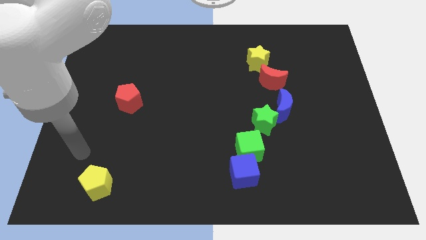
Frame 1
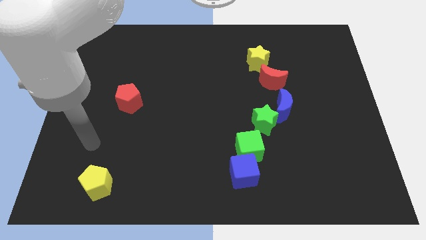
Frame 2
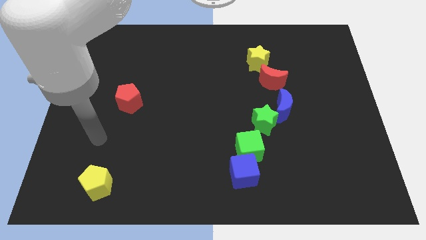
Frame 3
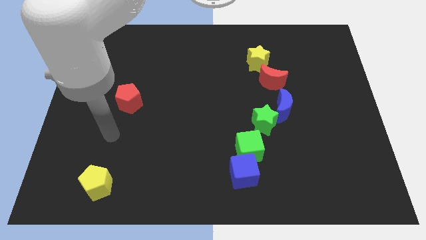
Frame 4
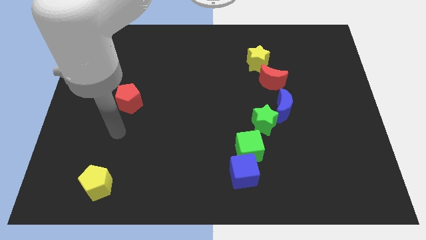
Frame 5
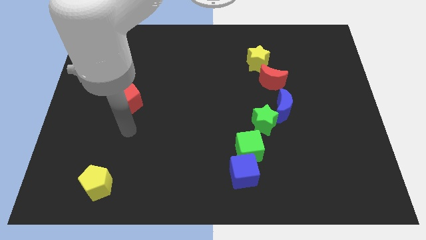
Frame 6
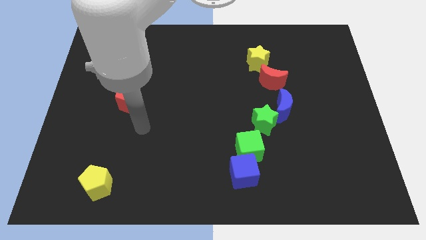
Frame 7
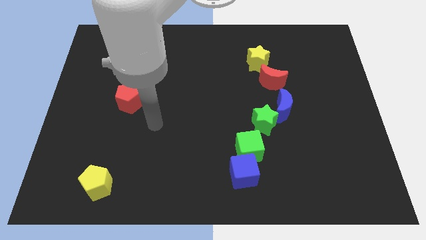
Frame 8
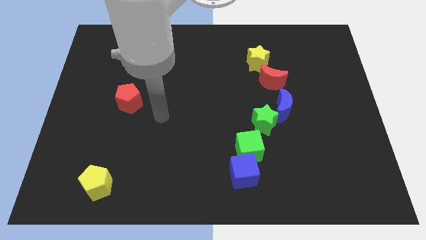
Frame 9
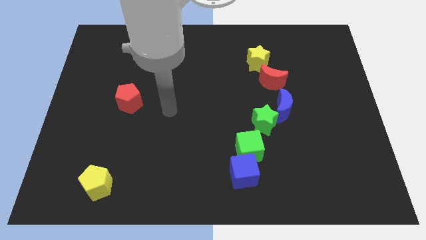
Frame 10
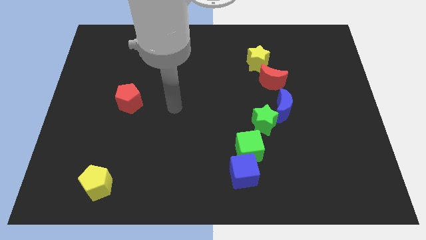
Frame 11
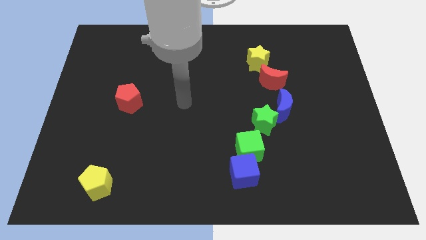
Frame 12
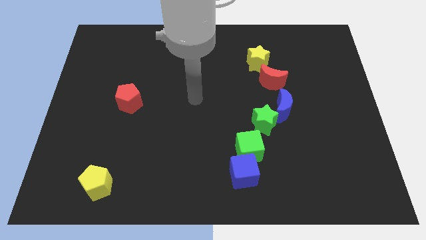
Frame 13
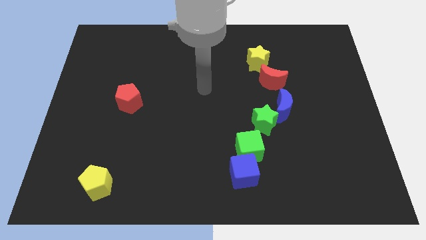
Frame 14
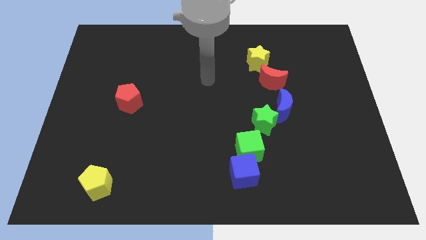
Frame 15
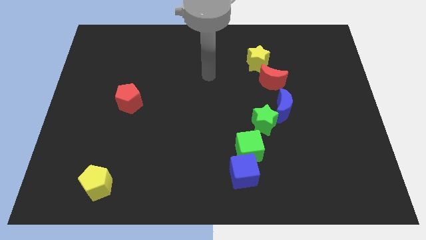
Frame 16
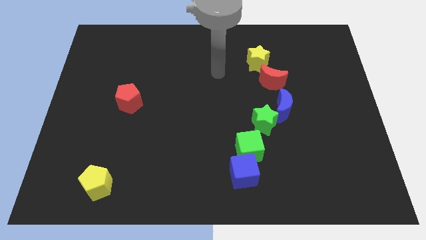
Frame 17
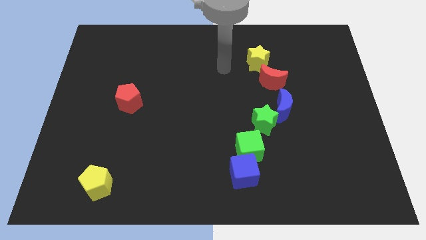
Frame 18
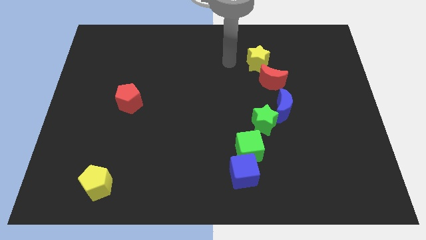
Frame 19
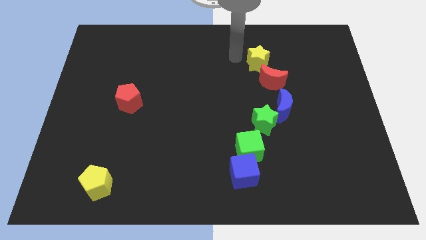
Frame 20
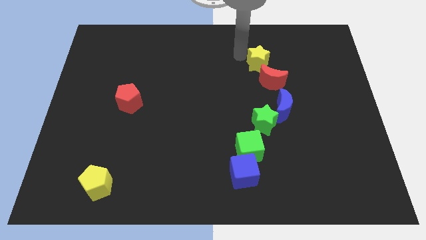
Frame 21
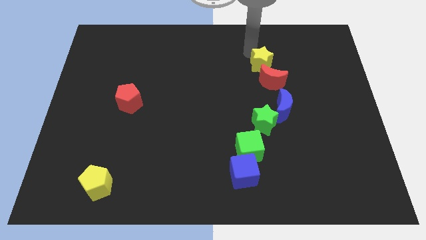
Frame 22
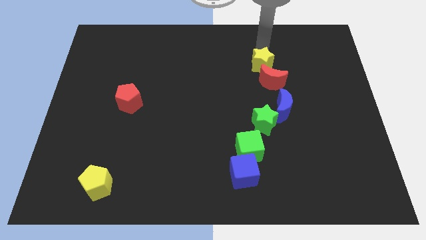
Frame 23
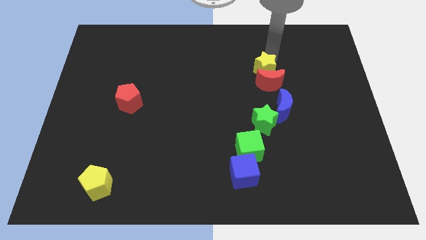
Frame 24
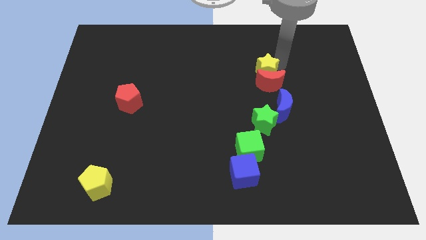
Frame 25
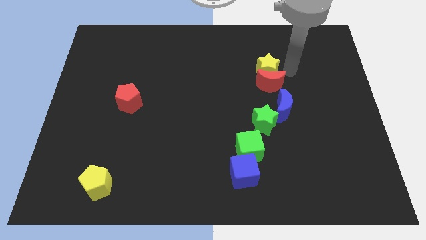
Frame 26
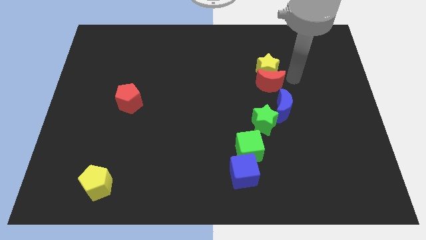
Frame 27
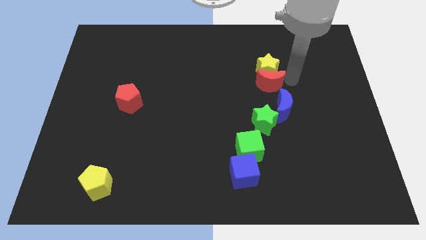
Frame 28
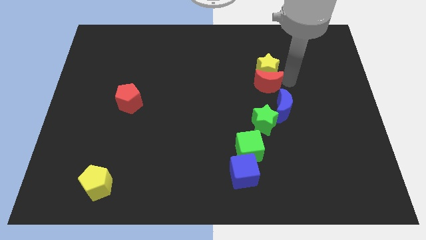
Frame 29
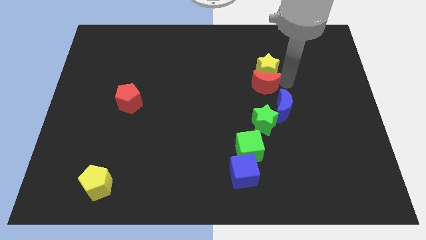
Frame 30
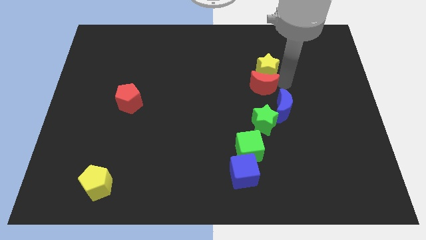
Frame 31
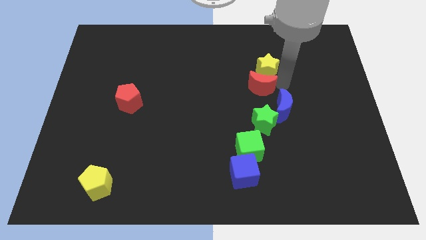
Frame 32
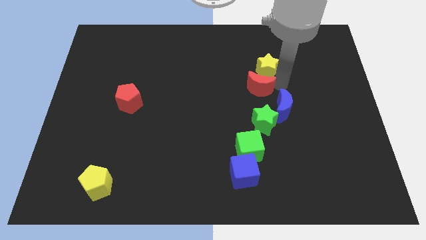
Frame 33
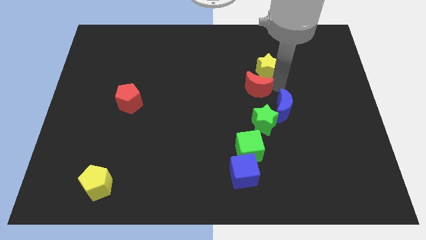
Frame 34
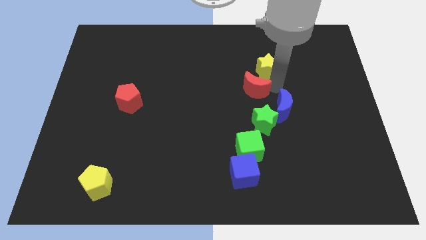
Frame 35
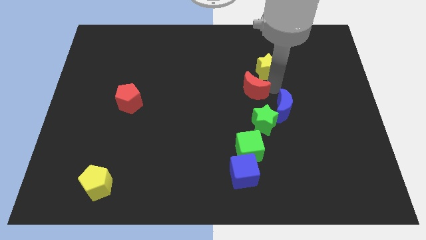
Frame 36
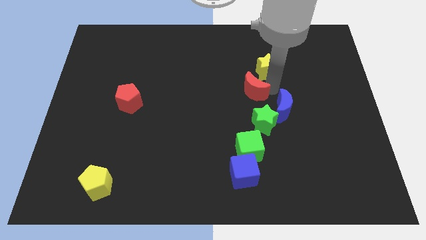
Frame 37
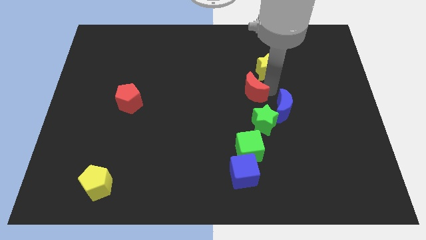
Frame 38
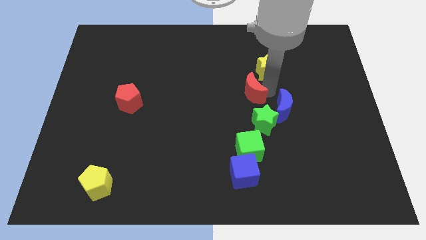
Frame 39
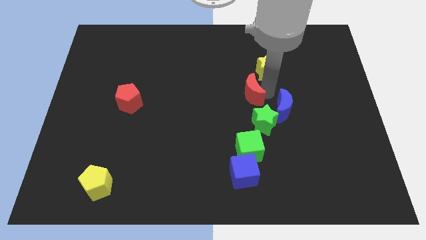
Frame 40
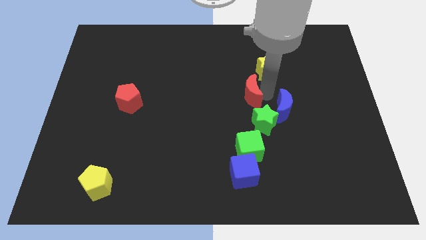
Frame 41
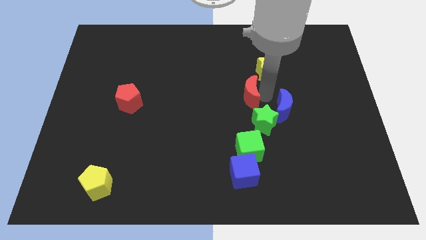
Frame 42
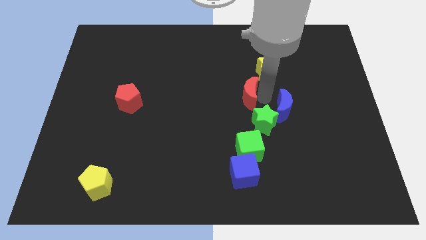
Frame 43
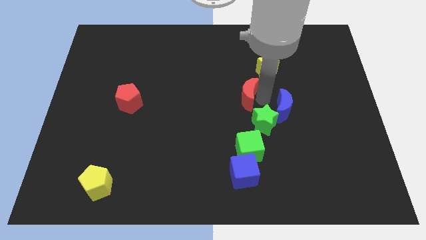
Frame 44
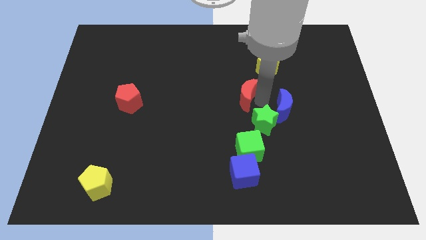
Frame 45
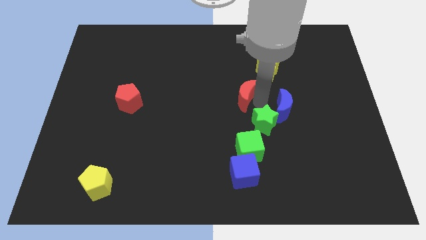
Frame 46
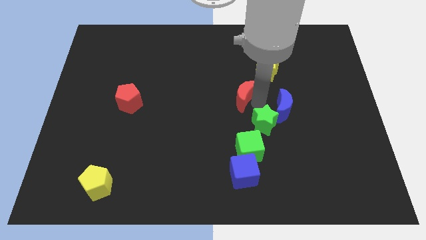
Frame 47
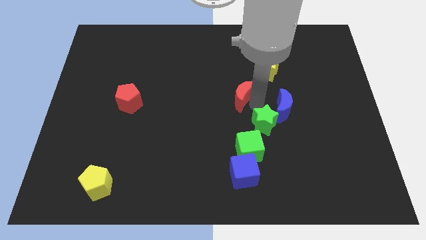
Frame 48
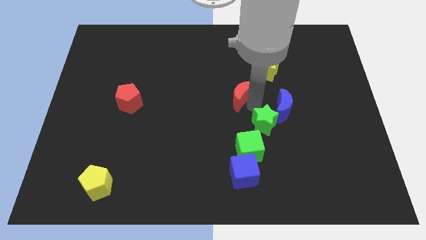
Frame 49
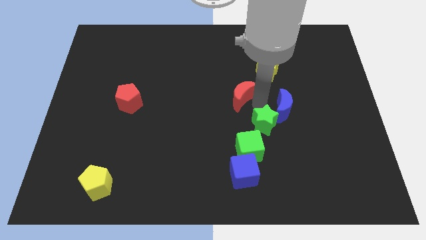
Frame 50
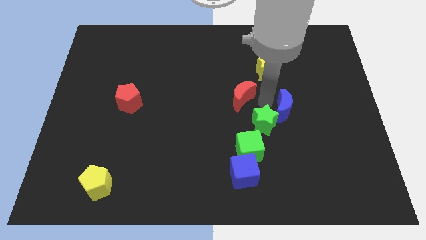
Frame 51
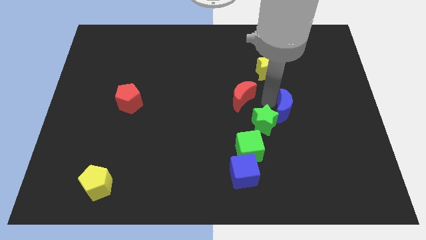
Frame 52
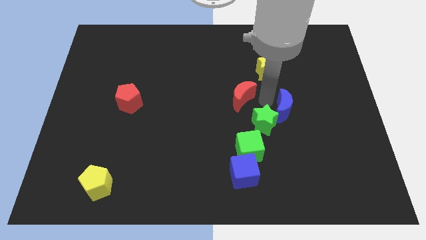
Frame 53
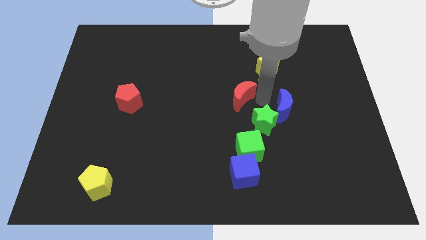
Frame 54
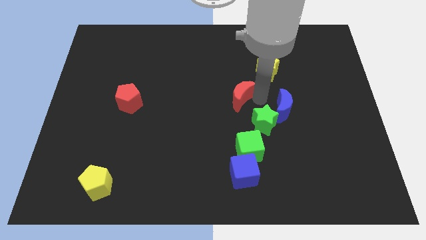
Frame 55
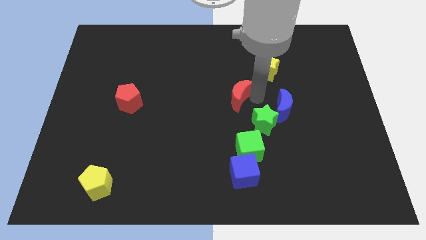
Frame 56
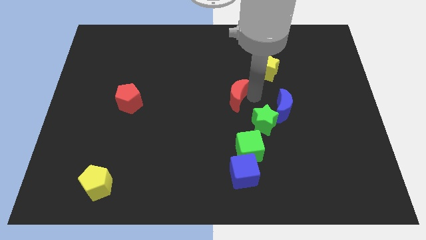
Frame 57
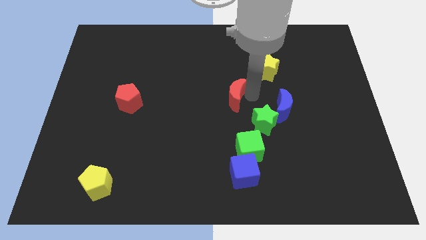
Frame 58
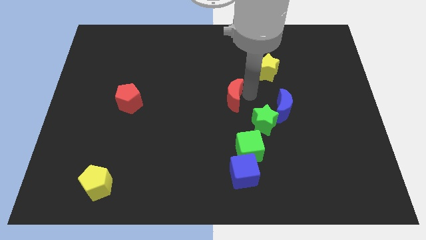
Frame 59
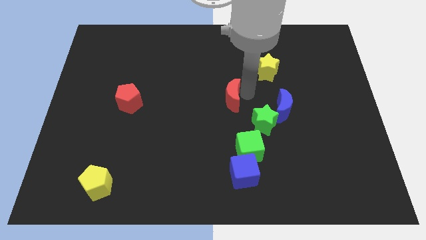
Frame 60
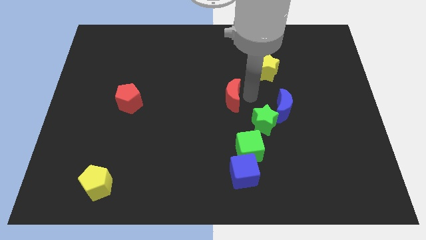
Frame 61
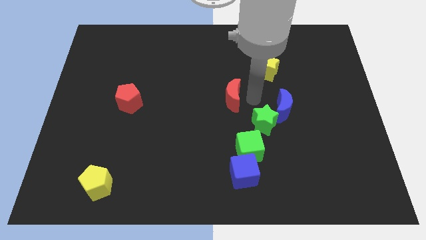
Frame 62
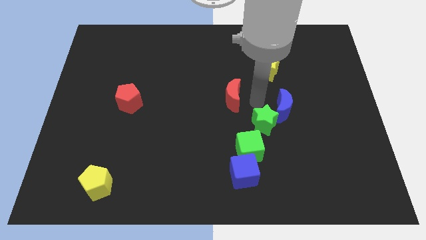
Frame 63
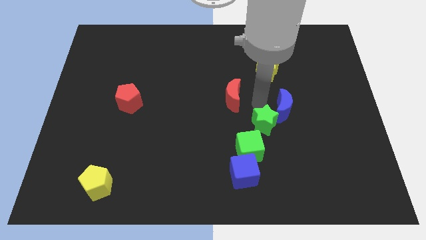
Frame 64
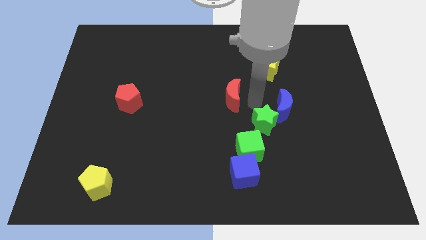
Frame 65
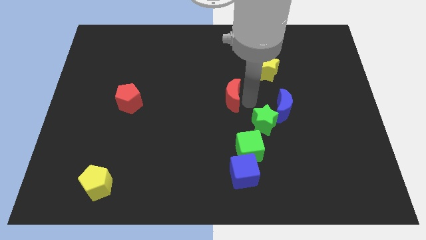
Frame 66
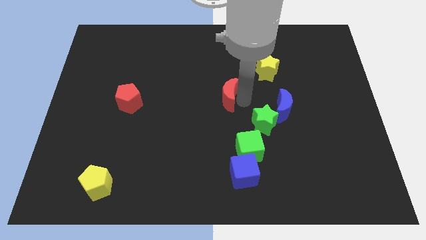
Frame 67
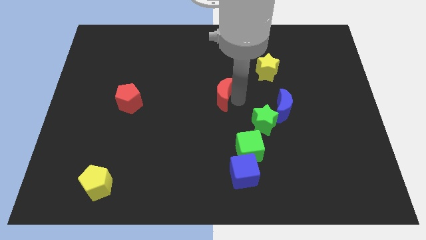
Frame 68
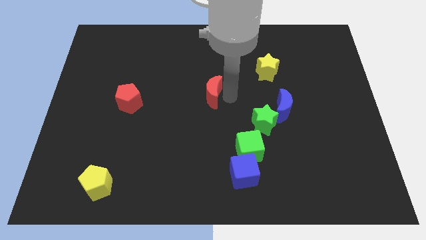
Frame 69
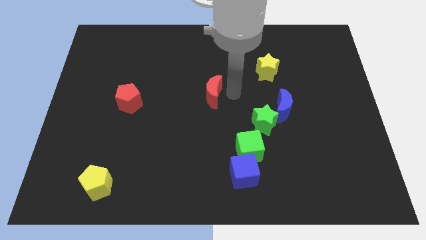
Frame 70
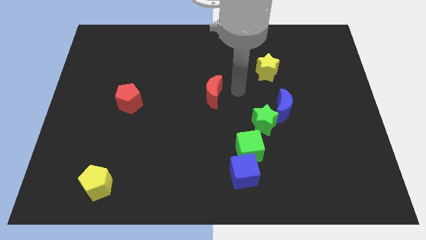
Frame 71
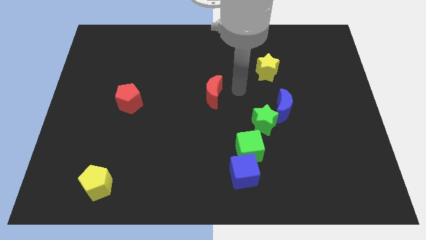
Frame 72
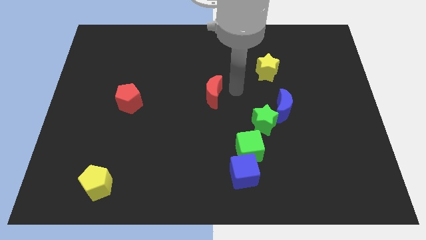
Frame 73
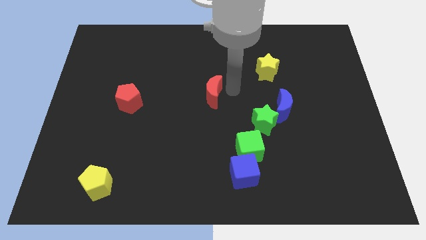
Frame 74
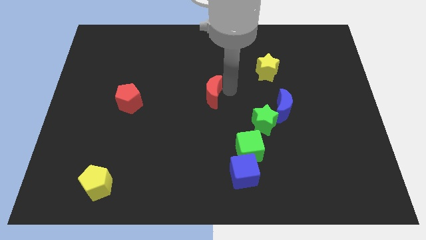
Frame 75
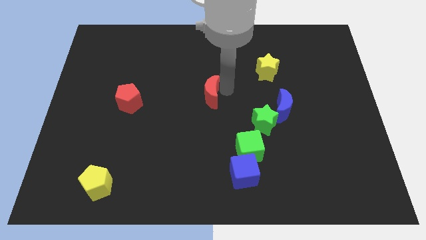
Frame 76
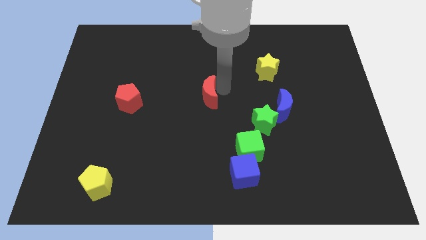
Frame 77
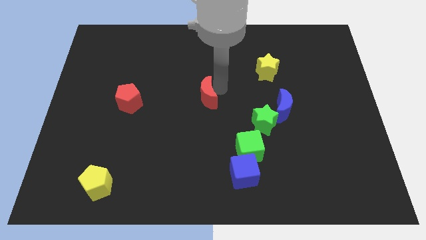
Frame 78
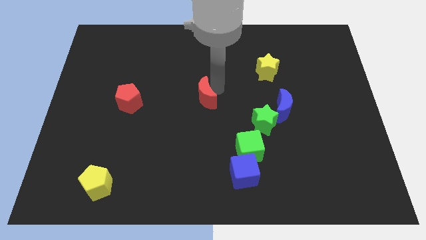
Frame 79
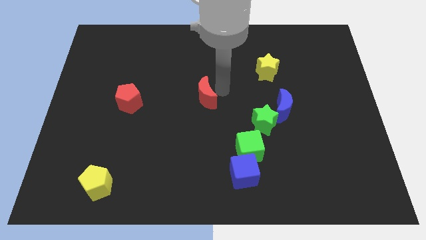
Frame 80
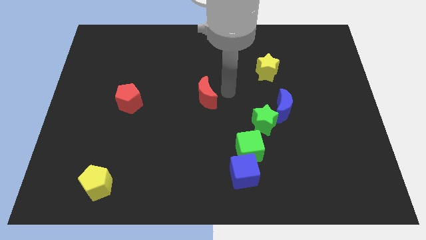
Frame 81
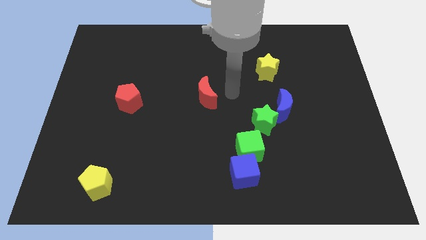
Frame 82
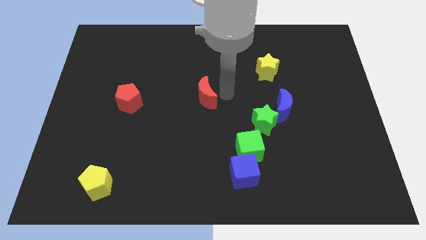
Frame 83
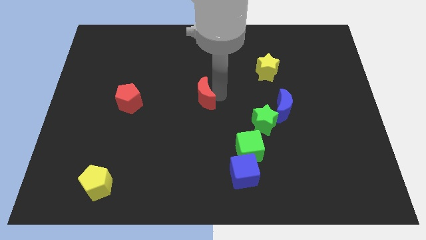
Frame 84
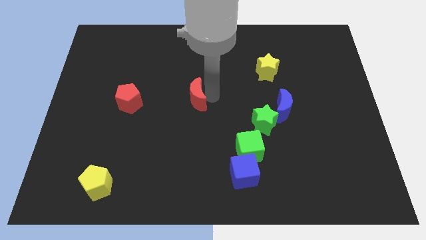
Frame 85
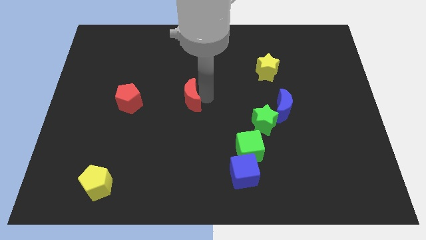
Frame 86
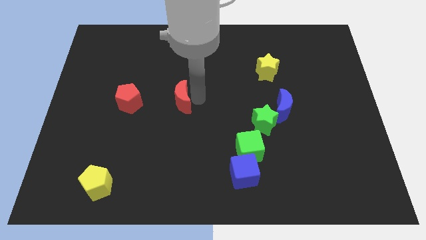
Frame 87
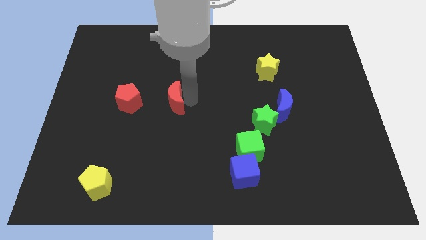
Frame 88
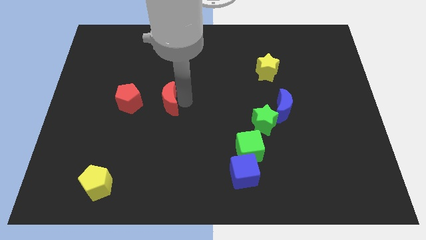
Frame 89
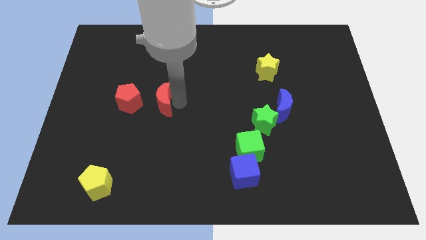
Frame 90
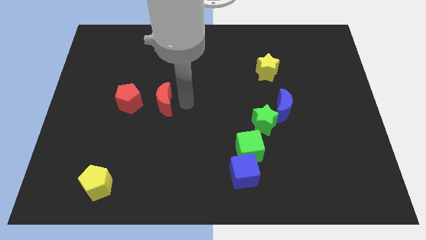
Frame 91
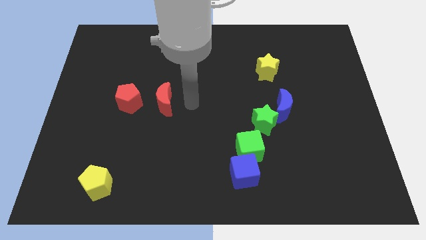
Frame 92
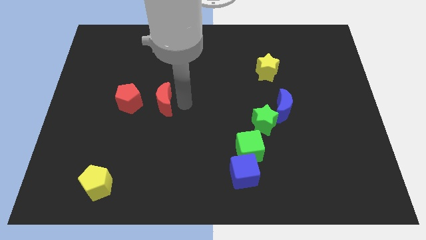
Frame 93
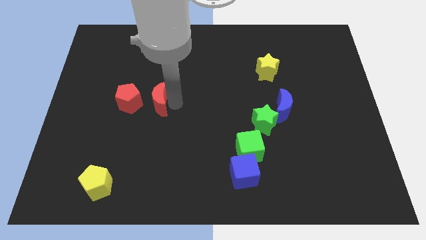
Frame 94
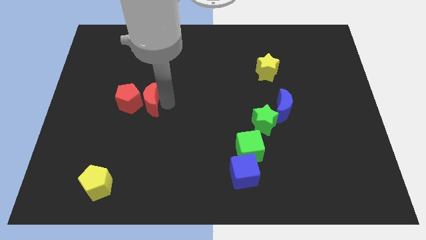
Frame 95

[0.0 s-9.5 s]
put the red moon towards the red pentagon
